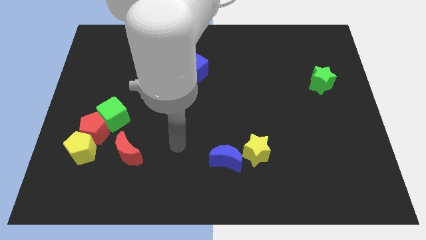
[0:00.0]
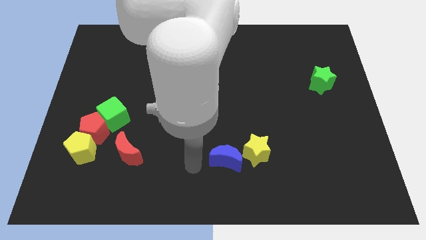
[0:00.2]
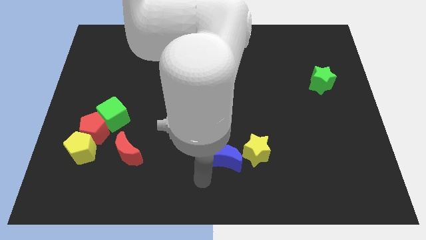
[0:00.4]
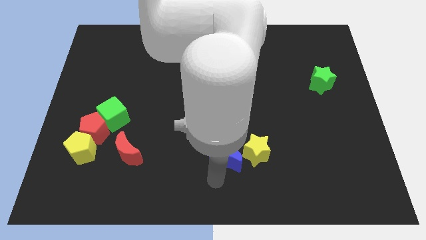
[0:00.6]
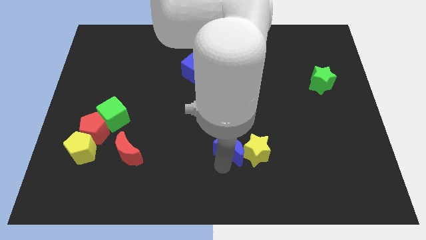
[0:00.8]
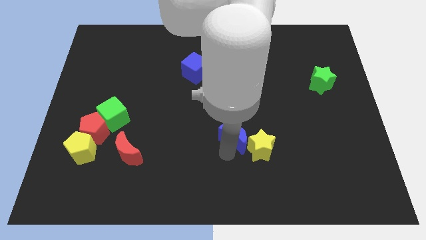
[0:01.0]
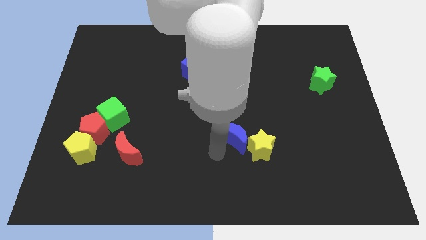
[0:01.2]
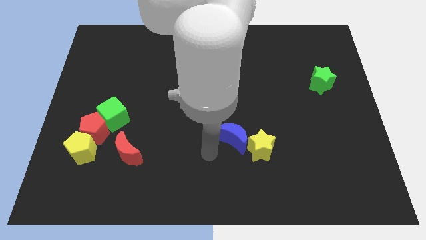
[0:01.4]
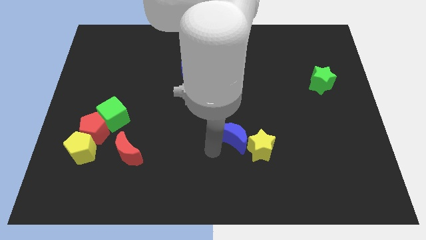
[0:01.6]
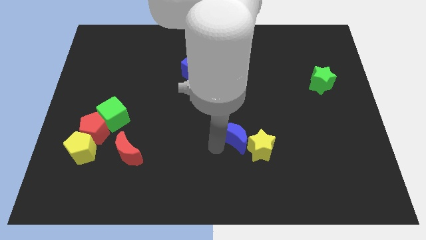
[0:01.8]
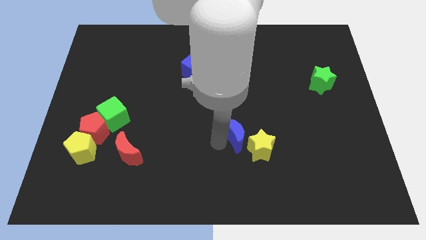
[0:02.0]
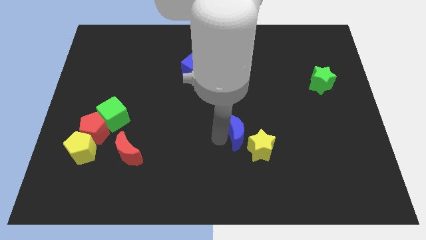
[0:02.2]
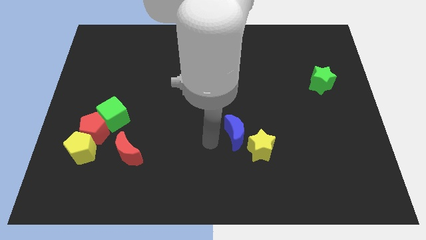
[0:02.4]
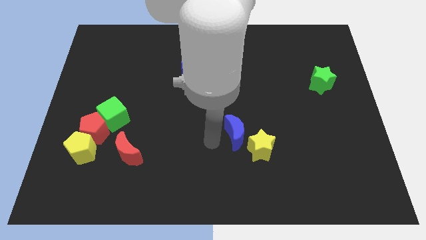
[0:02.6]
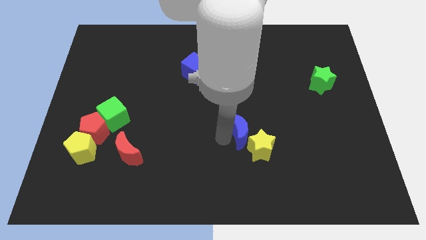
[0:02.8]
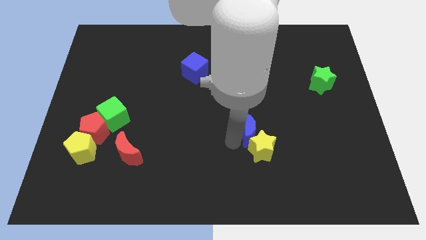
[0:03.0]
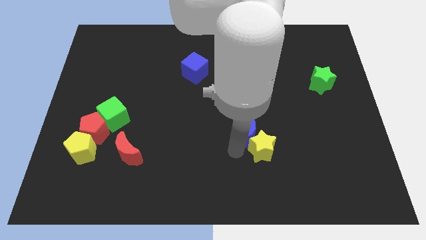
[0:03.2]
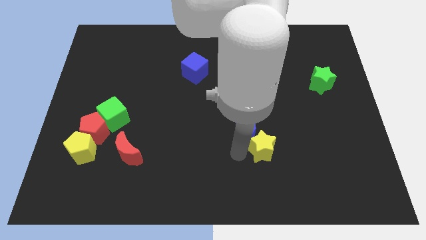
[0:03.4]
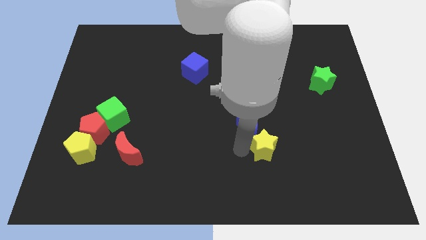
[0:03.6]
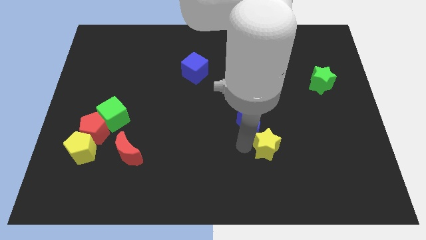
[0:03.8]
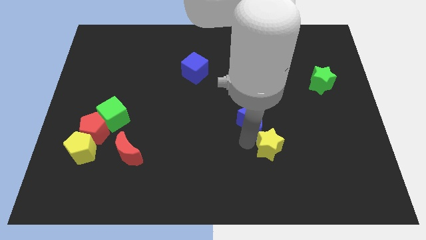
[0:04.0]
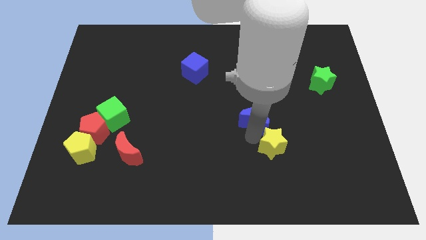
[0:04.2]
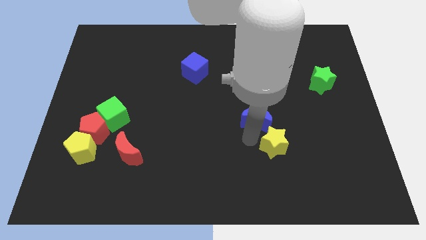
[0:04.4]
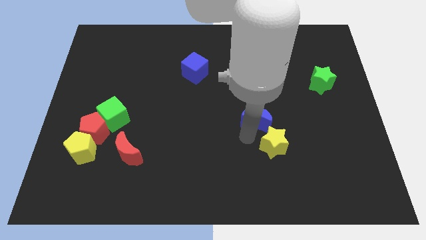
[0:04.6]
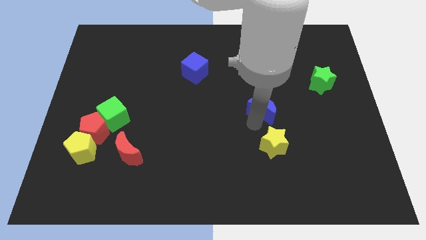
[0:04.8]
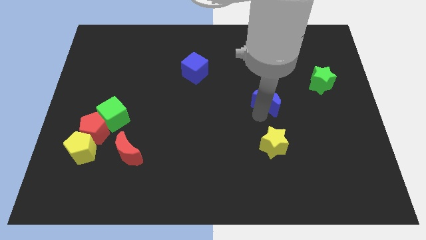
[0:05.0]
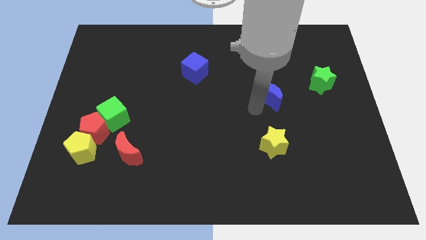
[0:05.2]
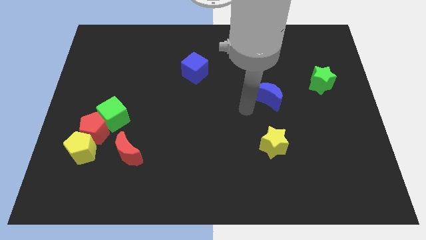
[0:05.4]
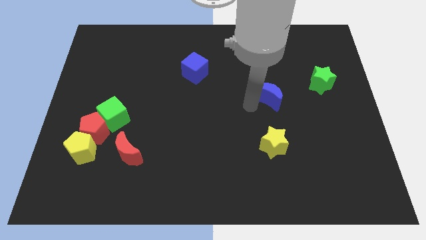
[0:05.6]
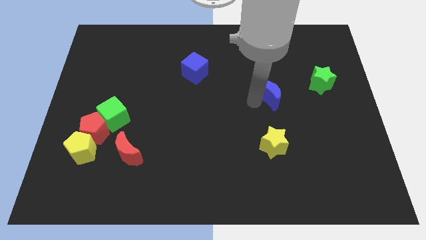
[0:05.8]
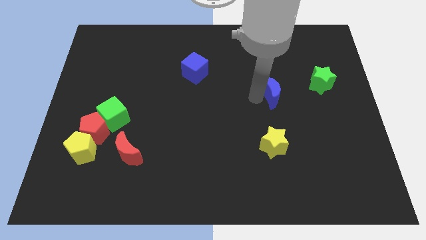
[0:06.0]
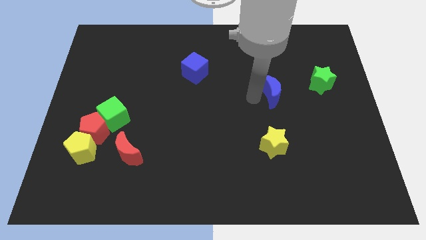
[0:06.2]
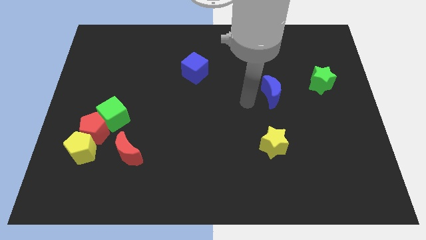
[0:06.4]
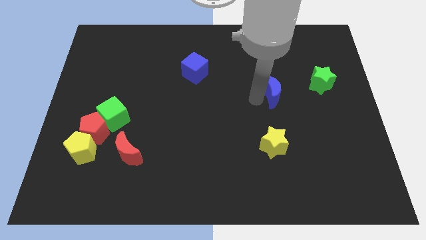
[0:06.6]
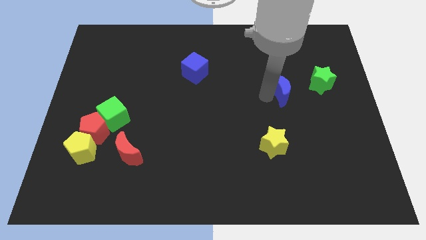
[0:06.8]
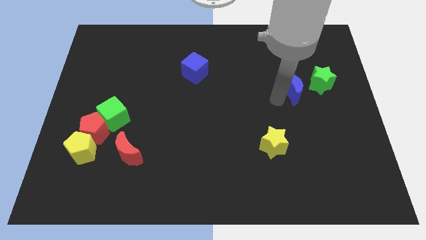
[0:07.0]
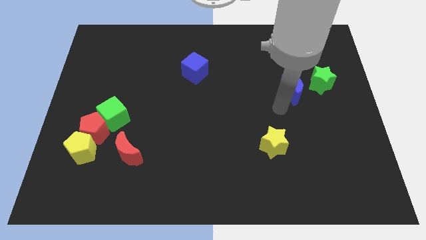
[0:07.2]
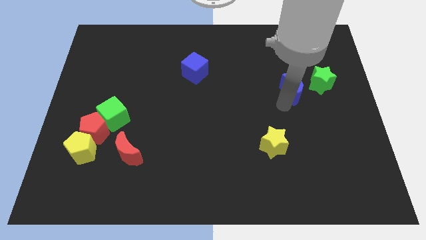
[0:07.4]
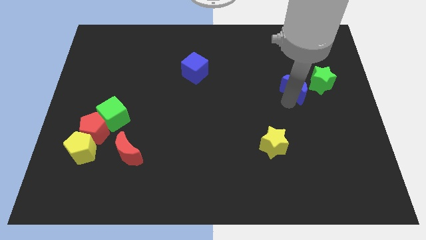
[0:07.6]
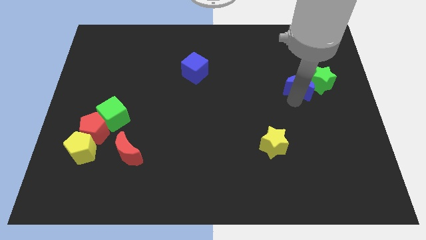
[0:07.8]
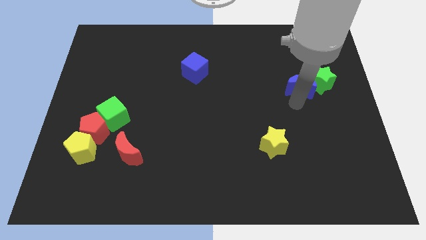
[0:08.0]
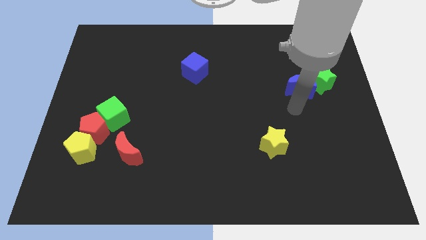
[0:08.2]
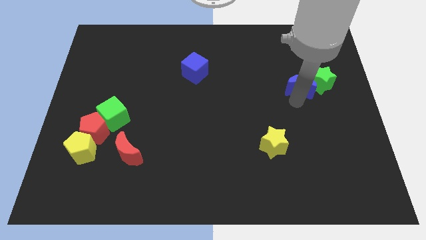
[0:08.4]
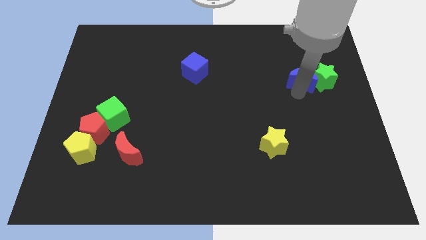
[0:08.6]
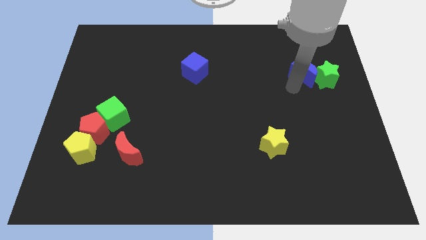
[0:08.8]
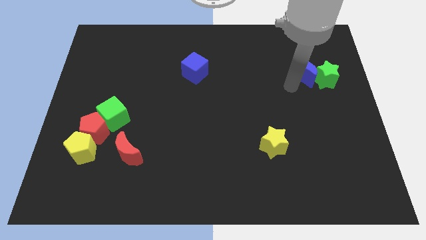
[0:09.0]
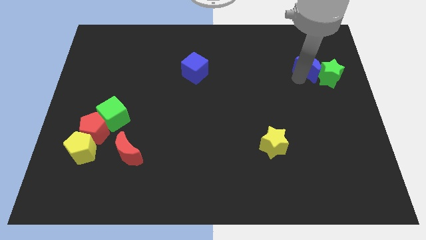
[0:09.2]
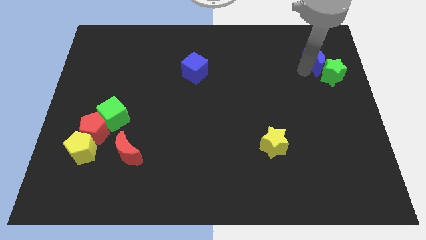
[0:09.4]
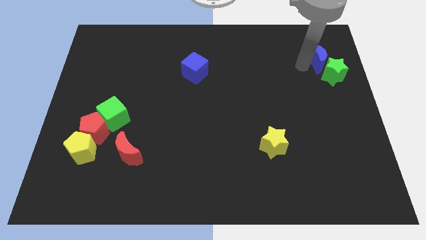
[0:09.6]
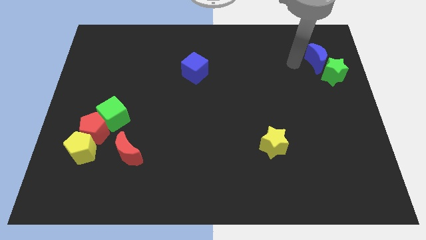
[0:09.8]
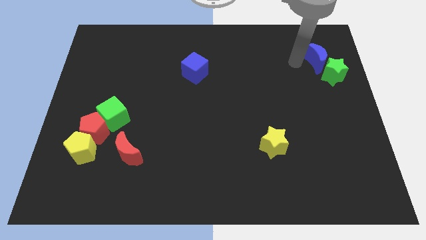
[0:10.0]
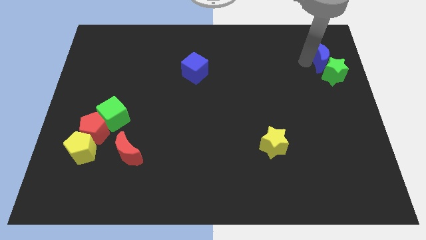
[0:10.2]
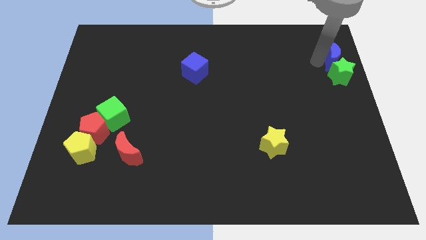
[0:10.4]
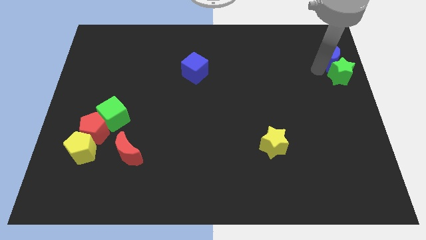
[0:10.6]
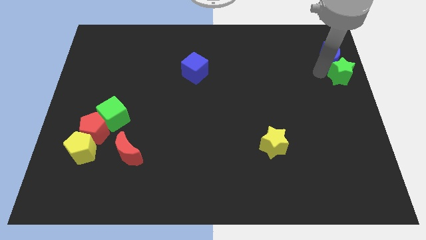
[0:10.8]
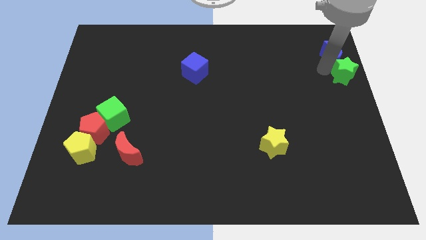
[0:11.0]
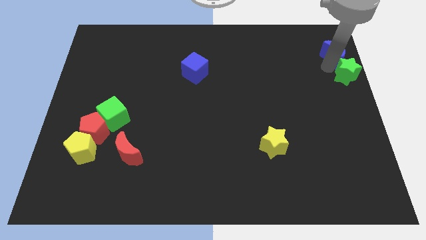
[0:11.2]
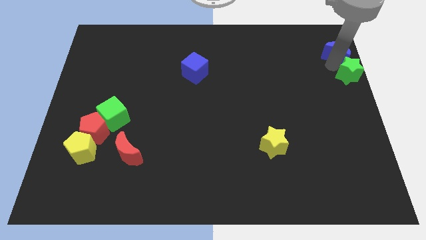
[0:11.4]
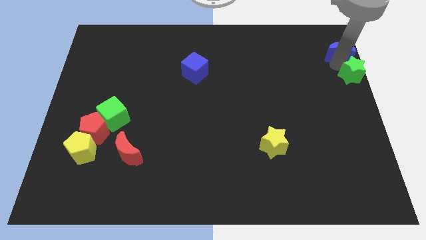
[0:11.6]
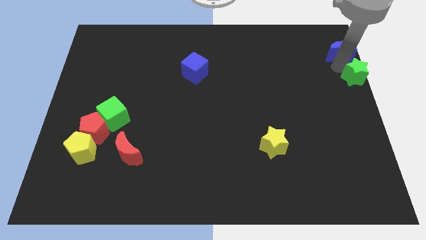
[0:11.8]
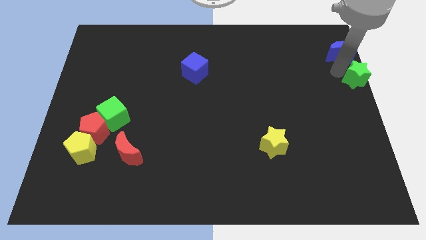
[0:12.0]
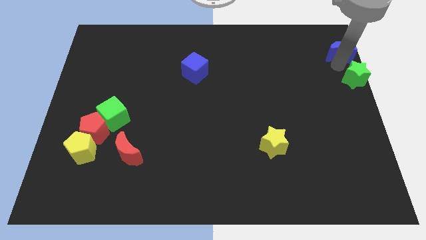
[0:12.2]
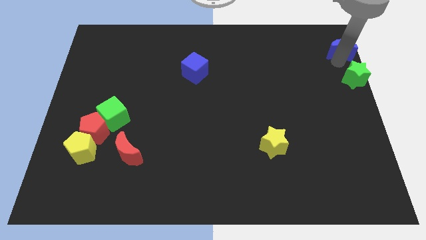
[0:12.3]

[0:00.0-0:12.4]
move the blue moon to the top right corner
